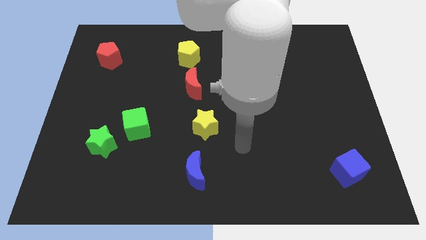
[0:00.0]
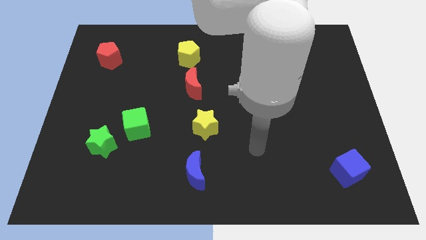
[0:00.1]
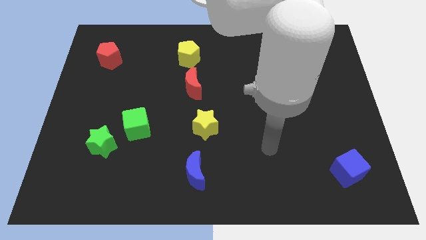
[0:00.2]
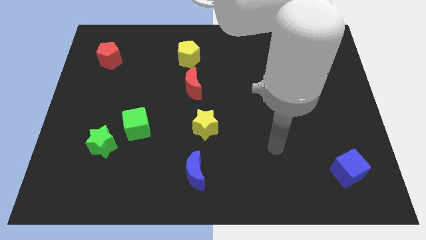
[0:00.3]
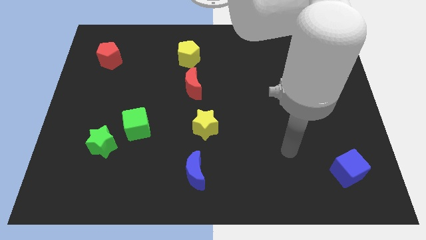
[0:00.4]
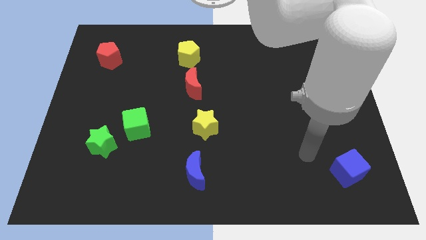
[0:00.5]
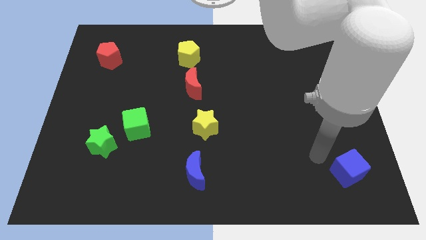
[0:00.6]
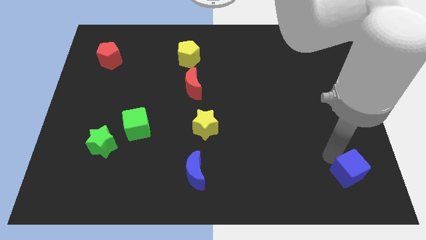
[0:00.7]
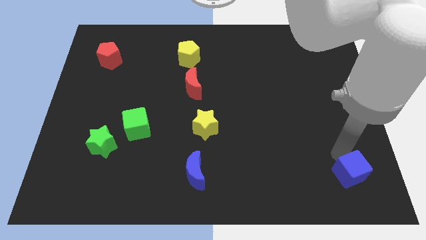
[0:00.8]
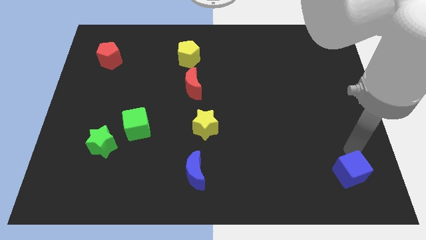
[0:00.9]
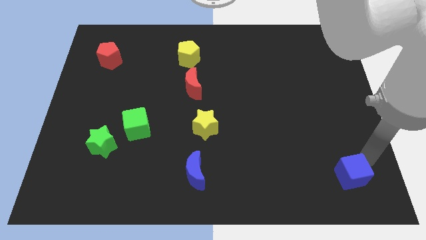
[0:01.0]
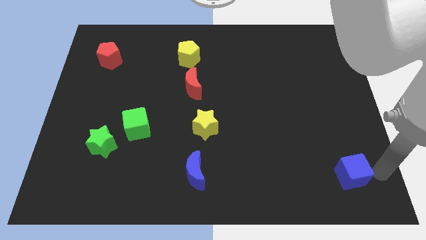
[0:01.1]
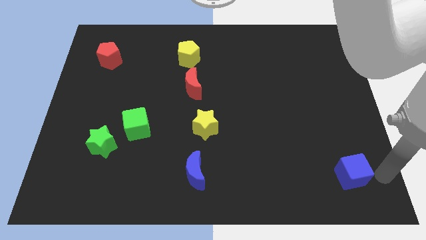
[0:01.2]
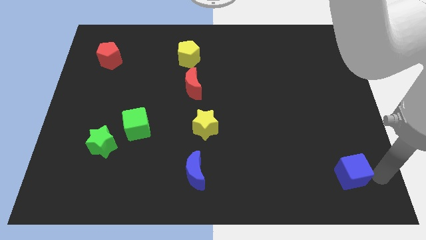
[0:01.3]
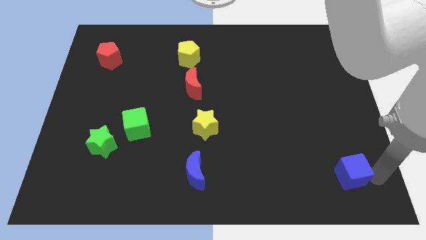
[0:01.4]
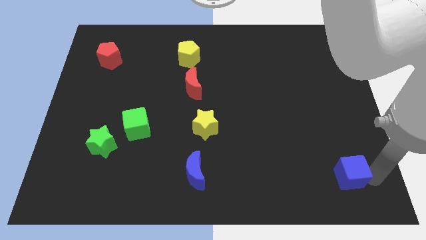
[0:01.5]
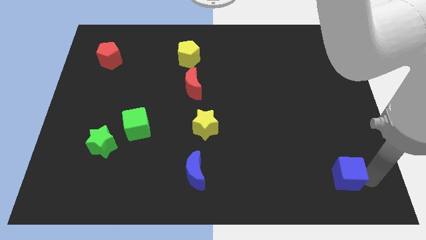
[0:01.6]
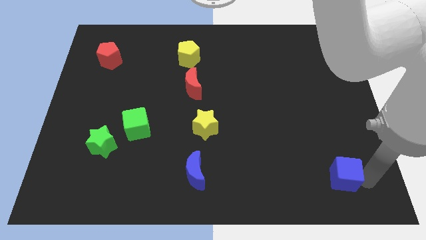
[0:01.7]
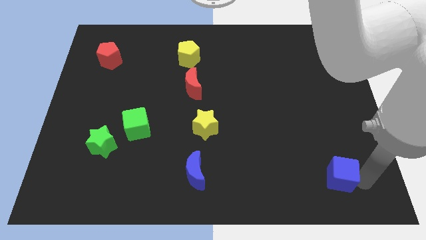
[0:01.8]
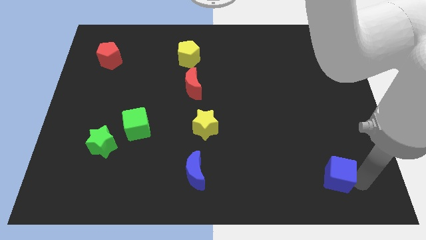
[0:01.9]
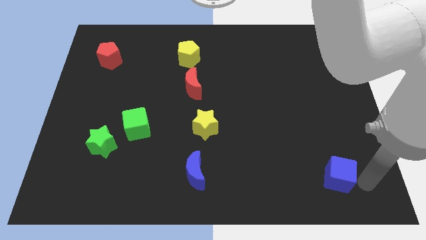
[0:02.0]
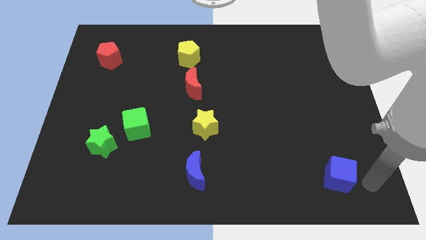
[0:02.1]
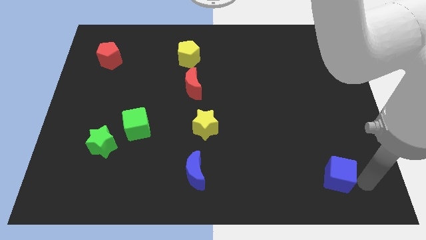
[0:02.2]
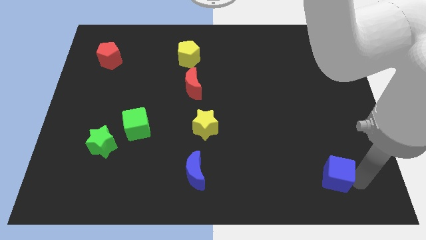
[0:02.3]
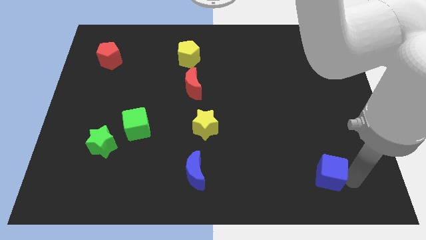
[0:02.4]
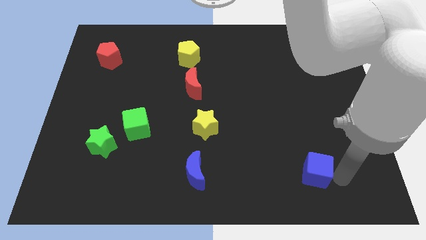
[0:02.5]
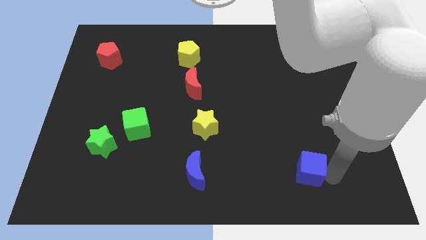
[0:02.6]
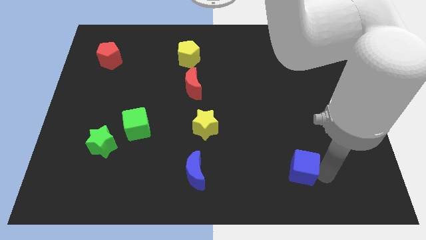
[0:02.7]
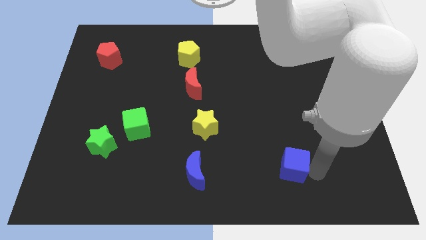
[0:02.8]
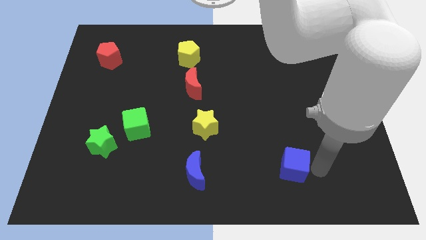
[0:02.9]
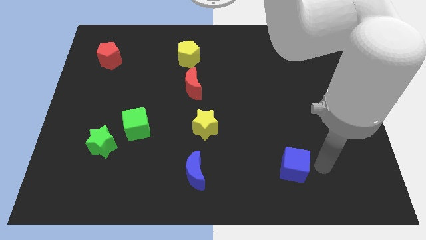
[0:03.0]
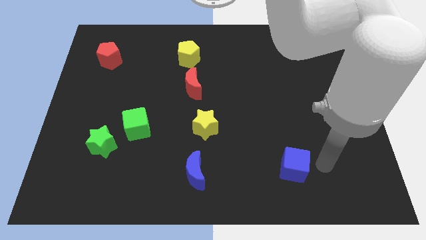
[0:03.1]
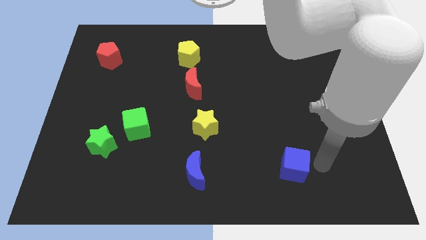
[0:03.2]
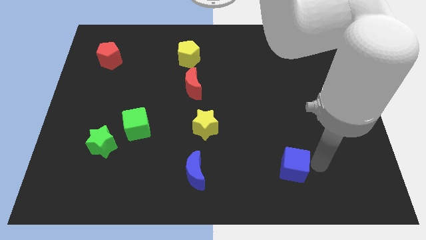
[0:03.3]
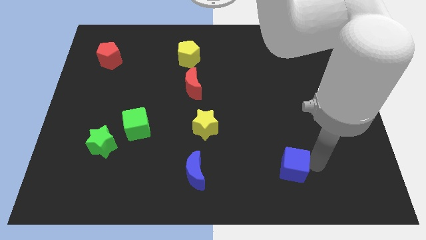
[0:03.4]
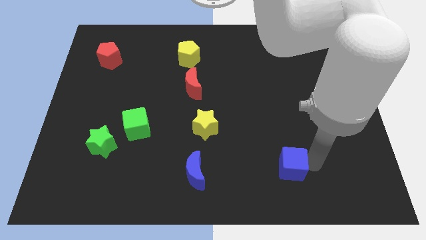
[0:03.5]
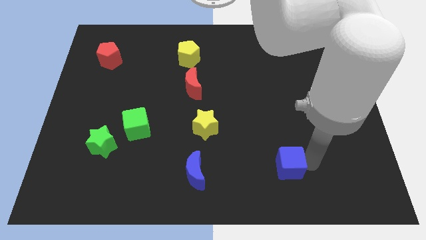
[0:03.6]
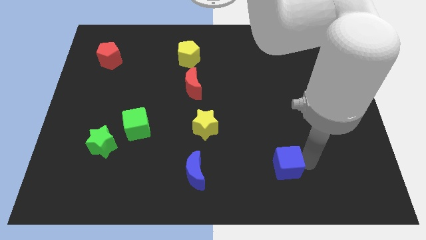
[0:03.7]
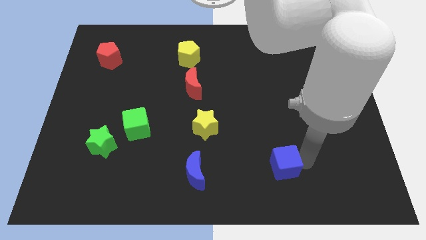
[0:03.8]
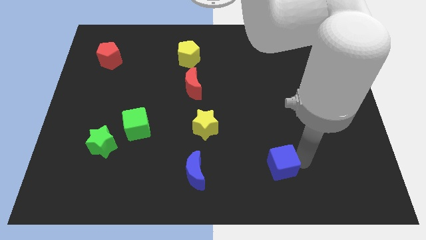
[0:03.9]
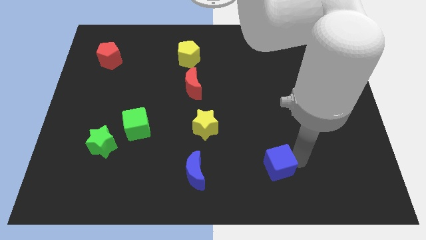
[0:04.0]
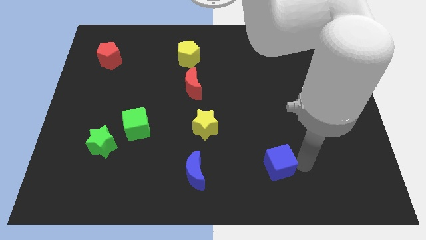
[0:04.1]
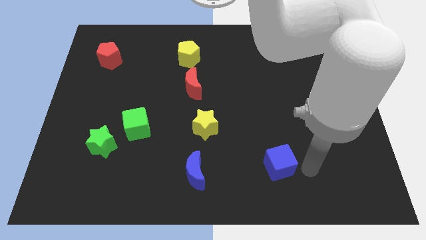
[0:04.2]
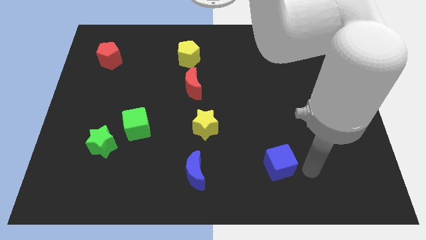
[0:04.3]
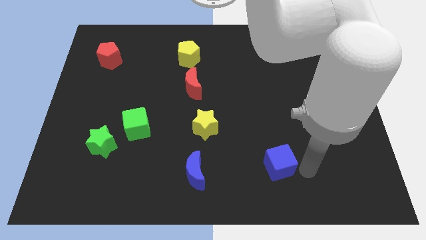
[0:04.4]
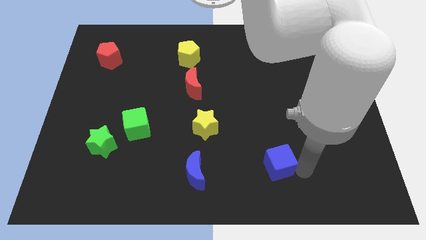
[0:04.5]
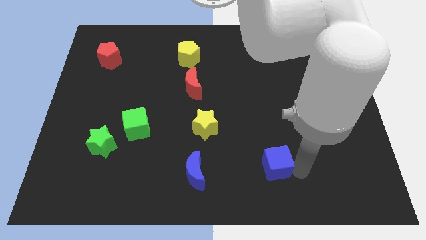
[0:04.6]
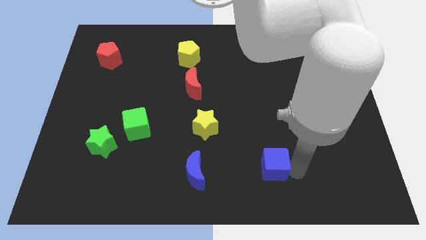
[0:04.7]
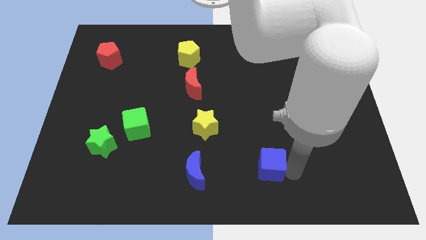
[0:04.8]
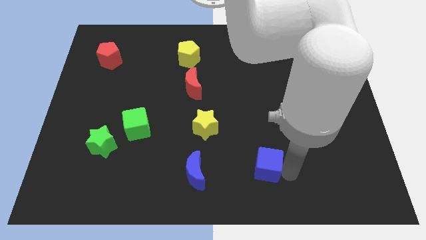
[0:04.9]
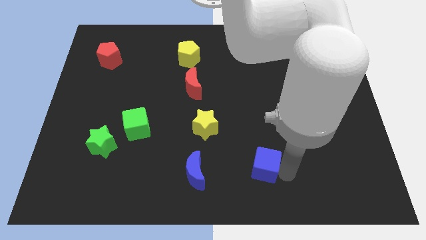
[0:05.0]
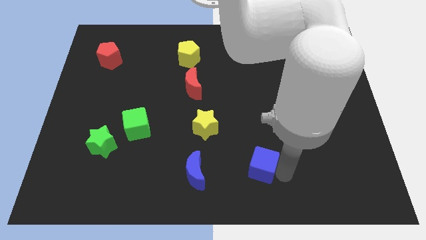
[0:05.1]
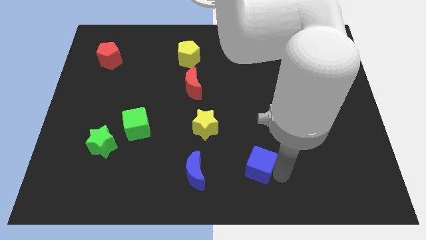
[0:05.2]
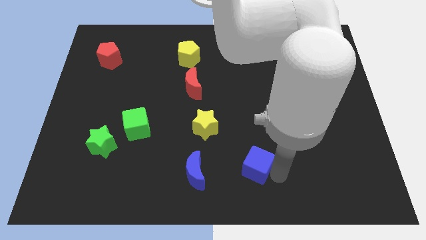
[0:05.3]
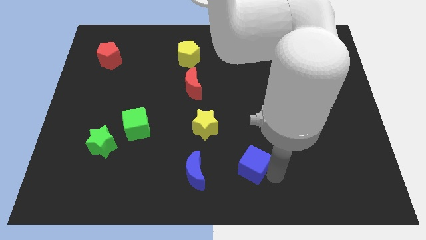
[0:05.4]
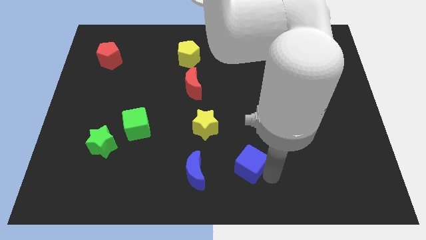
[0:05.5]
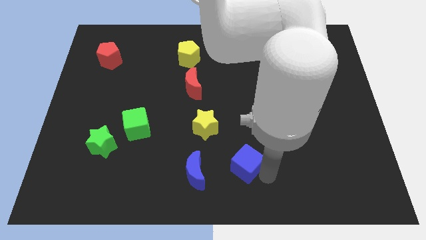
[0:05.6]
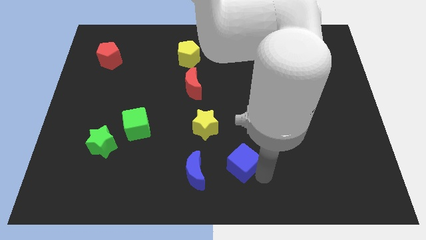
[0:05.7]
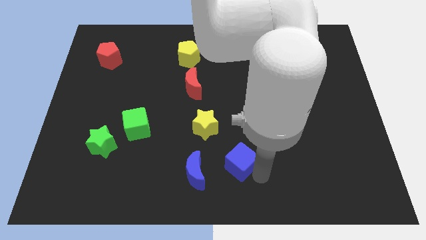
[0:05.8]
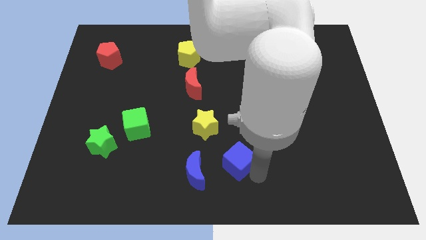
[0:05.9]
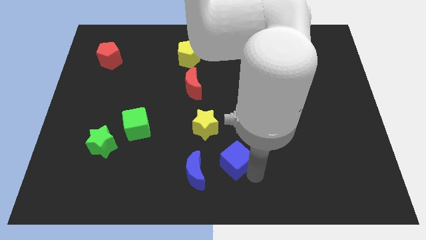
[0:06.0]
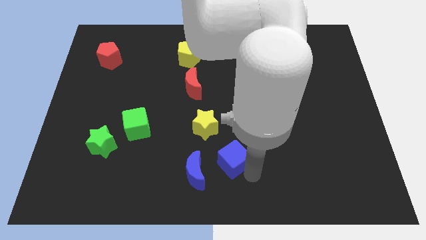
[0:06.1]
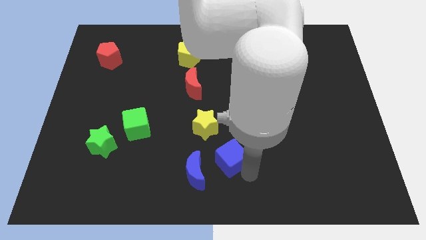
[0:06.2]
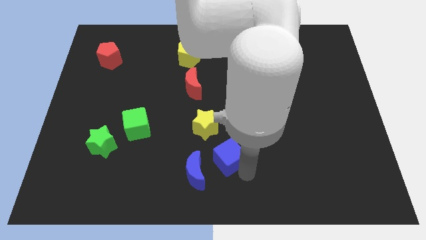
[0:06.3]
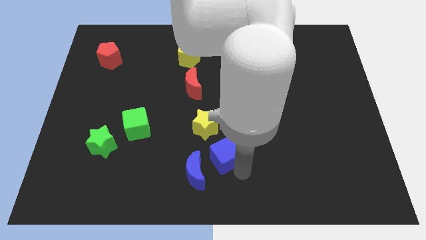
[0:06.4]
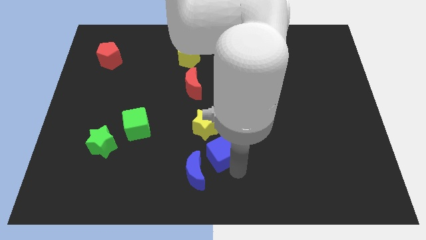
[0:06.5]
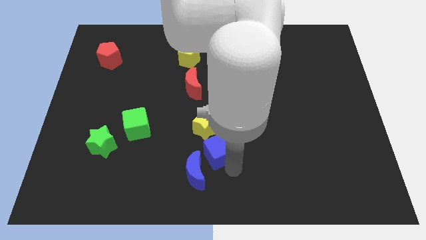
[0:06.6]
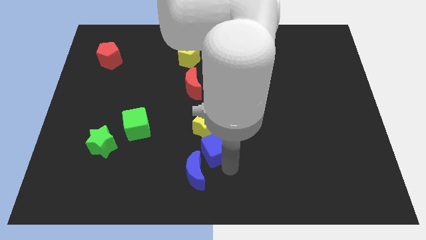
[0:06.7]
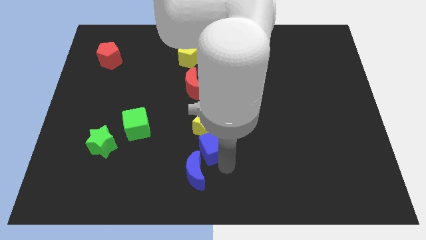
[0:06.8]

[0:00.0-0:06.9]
slide the blue cube towards the yellow star

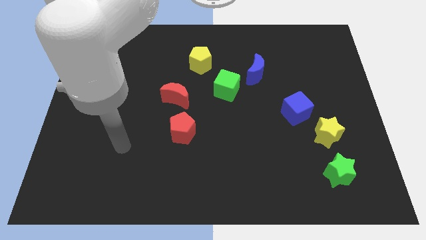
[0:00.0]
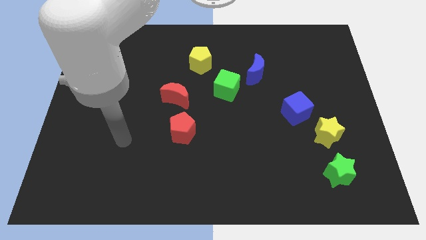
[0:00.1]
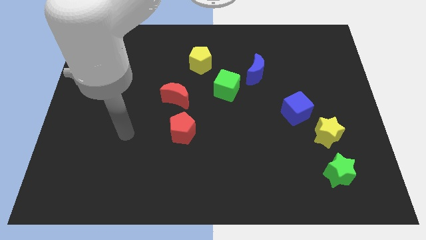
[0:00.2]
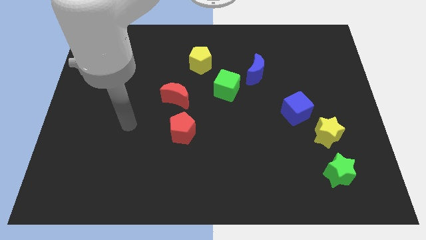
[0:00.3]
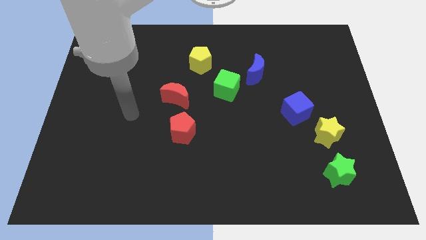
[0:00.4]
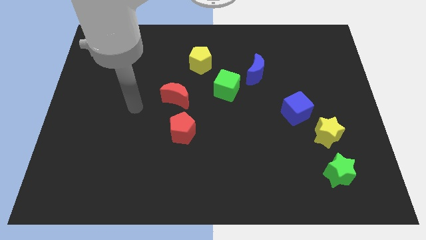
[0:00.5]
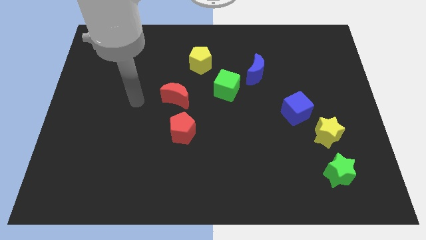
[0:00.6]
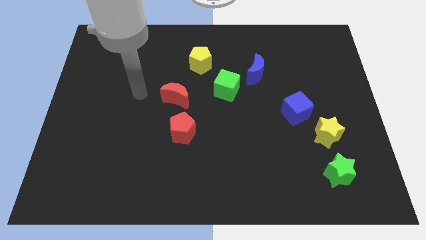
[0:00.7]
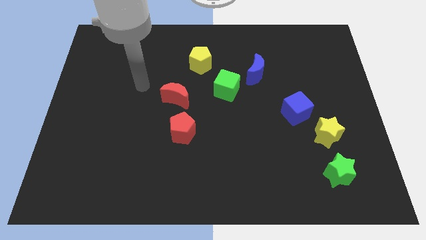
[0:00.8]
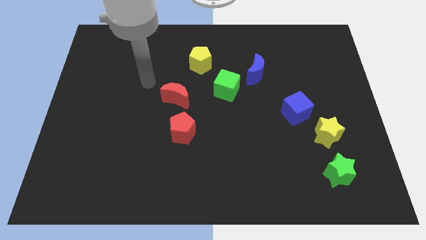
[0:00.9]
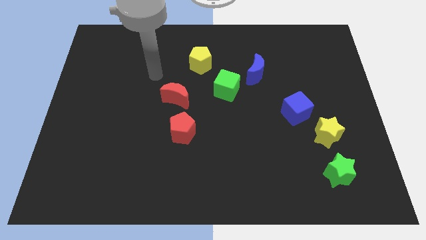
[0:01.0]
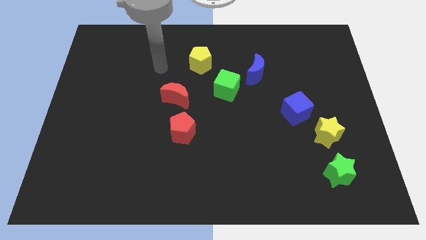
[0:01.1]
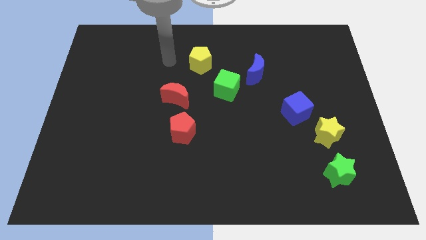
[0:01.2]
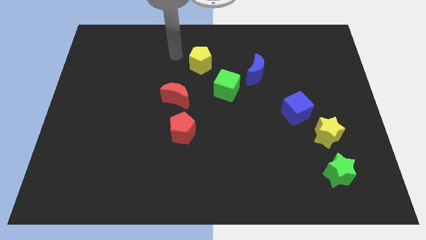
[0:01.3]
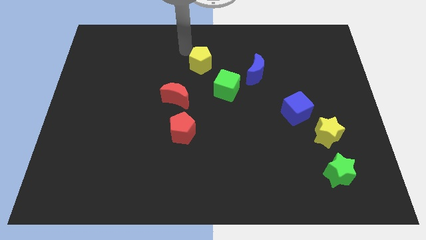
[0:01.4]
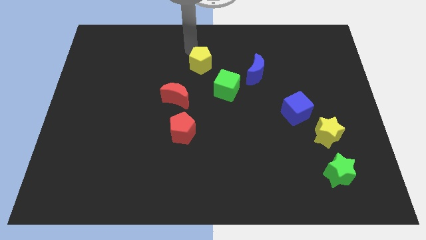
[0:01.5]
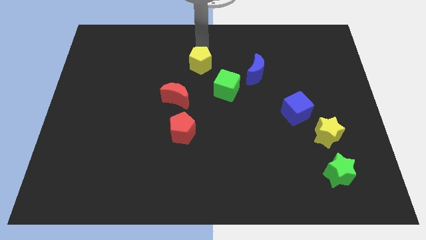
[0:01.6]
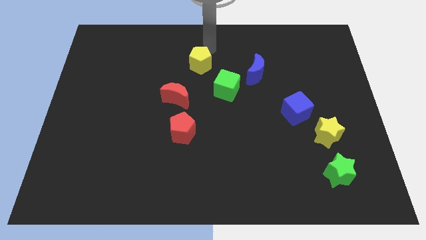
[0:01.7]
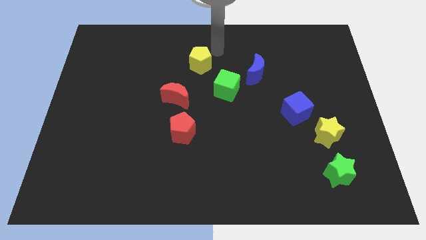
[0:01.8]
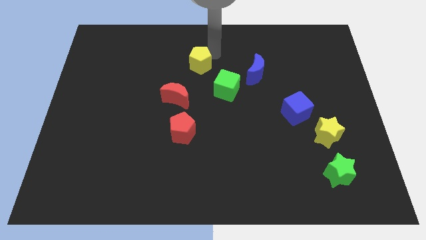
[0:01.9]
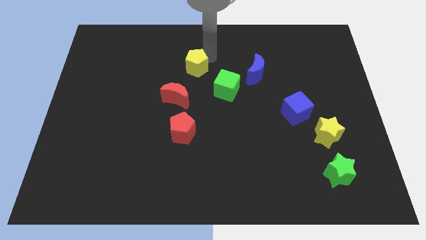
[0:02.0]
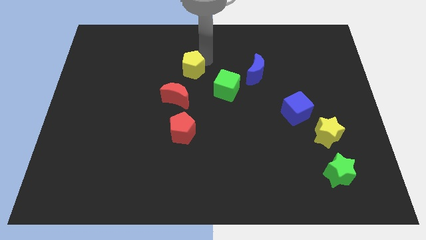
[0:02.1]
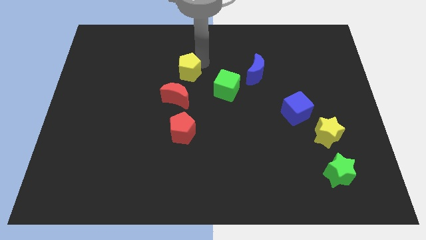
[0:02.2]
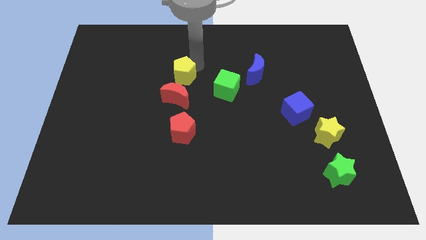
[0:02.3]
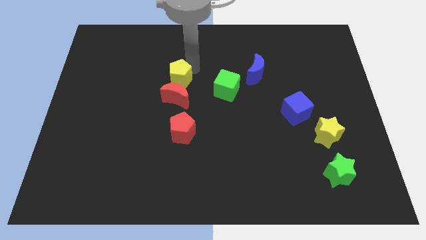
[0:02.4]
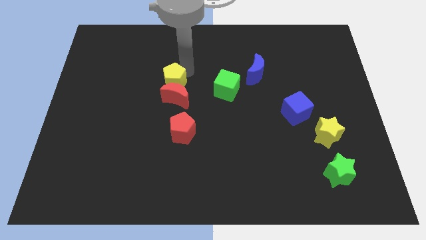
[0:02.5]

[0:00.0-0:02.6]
push the yellow pentagon next to the red moon
